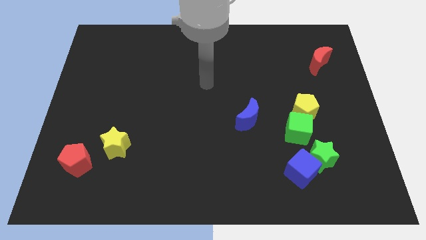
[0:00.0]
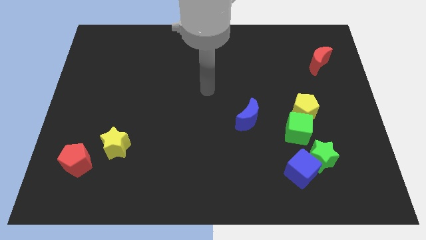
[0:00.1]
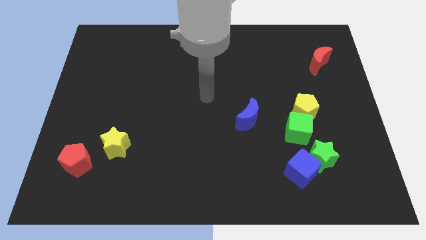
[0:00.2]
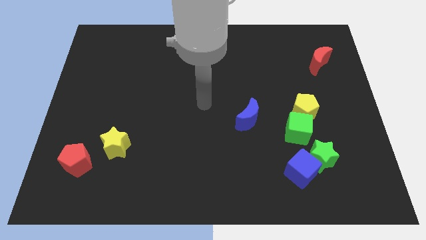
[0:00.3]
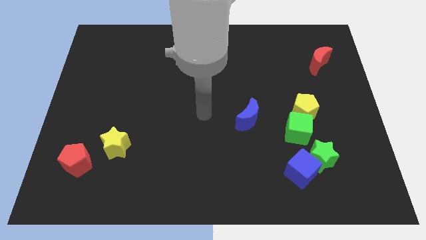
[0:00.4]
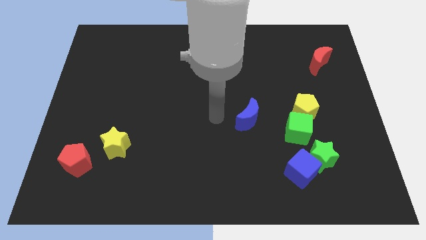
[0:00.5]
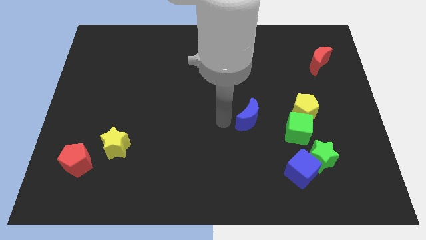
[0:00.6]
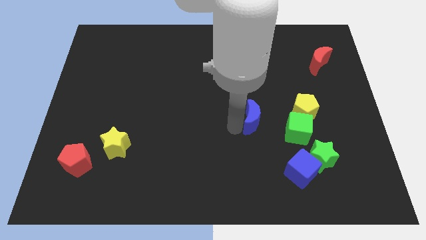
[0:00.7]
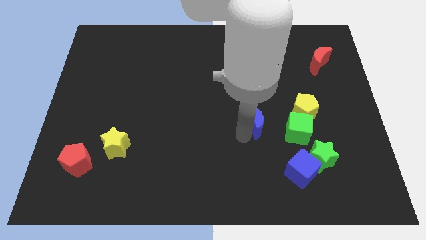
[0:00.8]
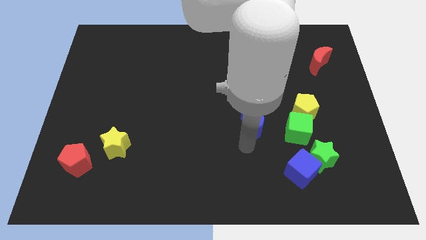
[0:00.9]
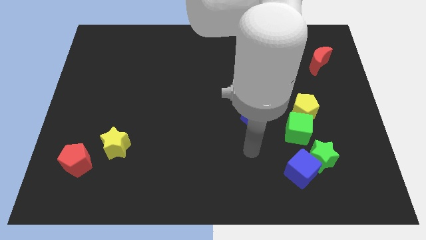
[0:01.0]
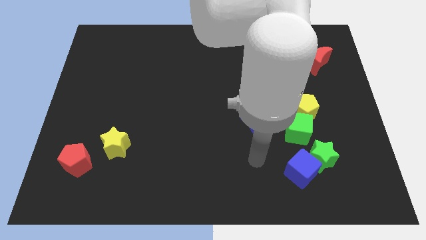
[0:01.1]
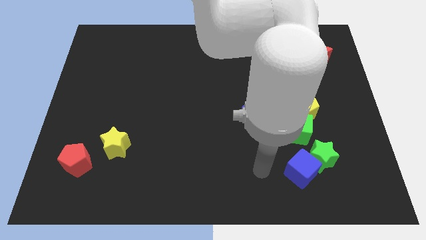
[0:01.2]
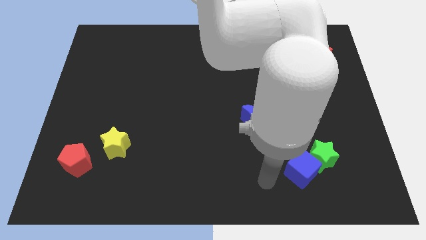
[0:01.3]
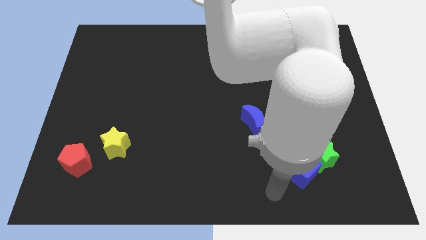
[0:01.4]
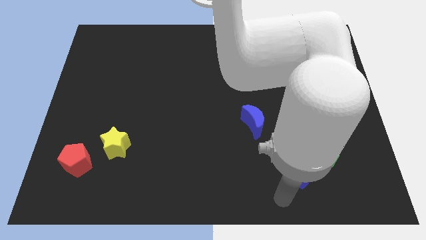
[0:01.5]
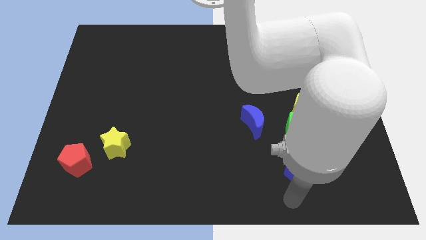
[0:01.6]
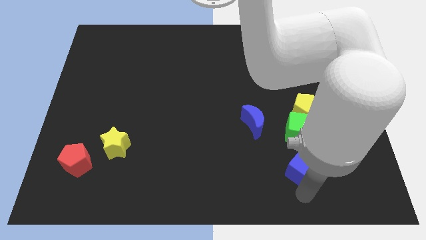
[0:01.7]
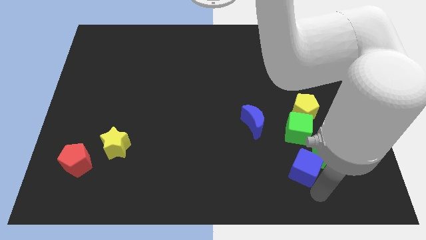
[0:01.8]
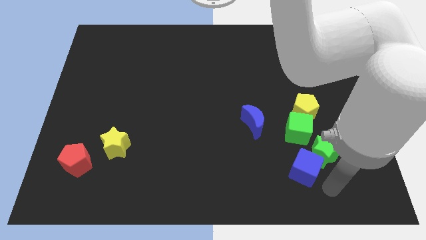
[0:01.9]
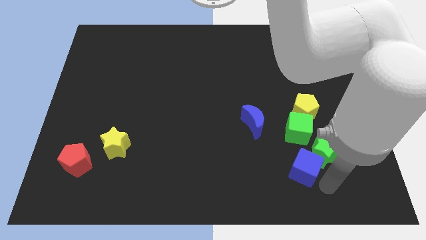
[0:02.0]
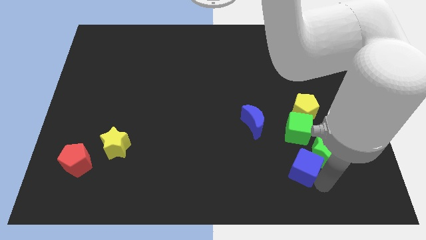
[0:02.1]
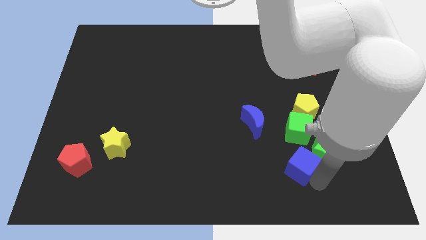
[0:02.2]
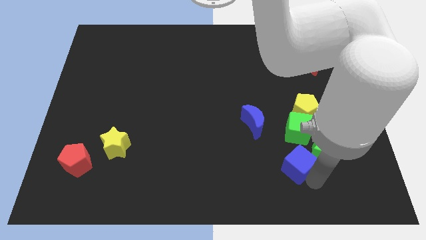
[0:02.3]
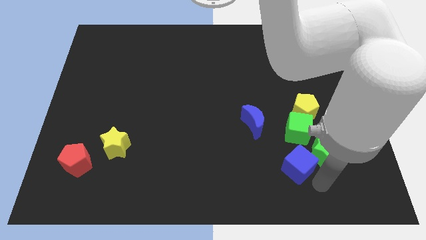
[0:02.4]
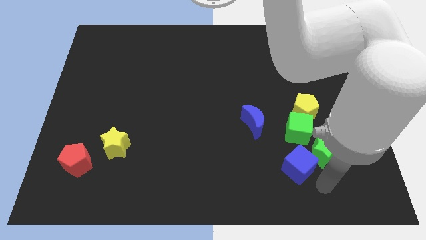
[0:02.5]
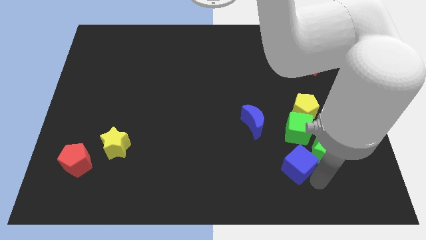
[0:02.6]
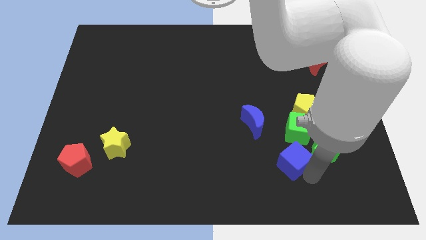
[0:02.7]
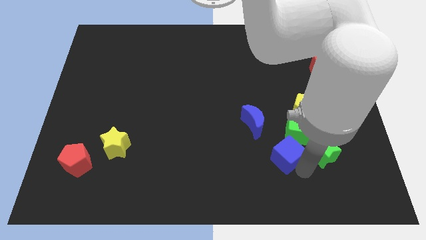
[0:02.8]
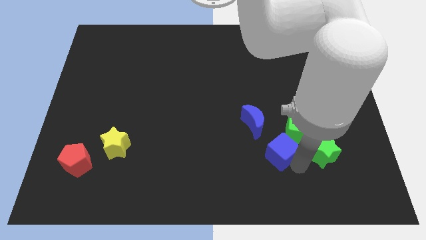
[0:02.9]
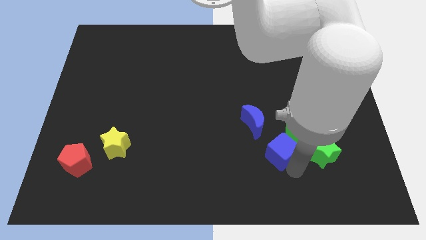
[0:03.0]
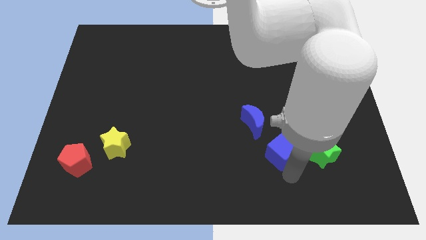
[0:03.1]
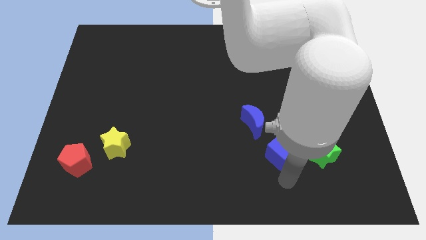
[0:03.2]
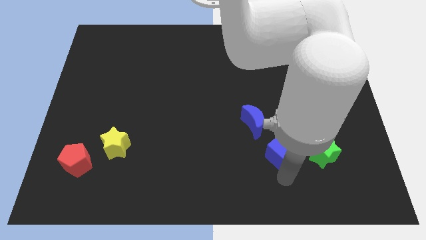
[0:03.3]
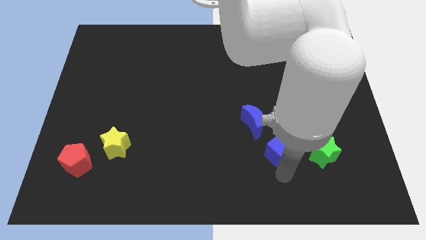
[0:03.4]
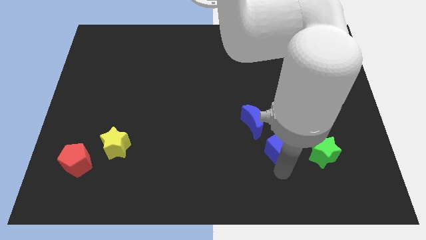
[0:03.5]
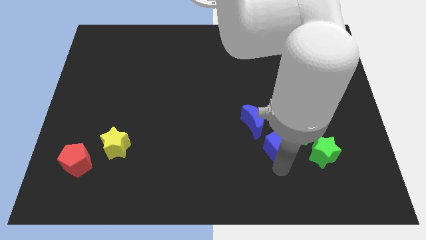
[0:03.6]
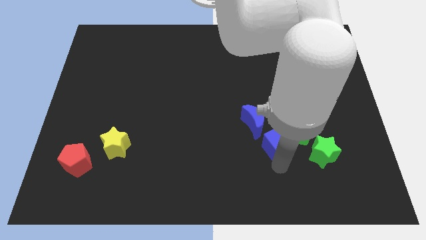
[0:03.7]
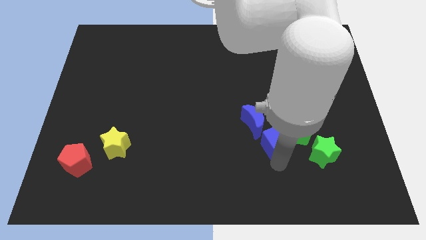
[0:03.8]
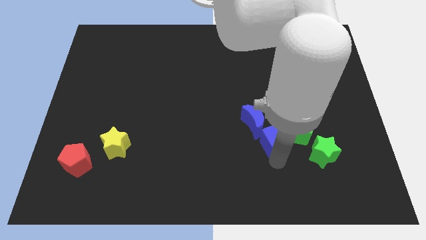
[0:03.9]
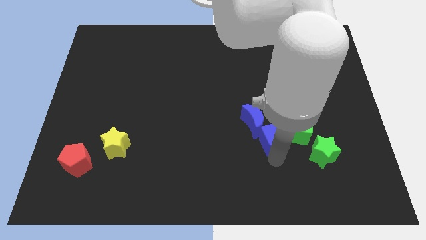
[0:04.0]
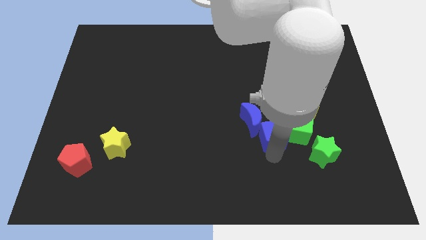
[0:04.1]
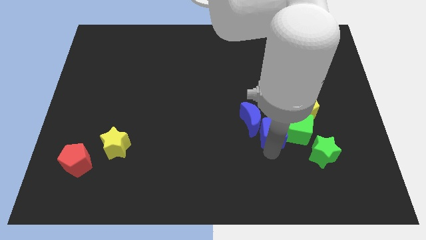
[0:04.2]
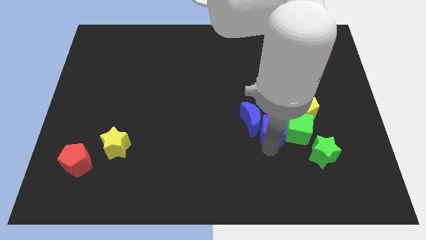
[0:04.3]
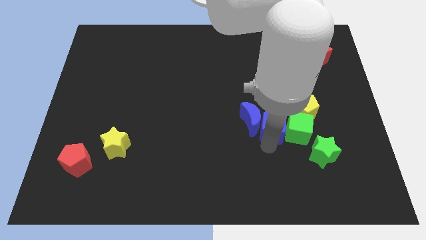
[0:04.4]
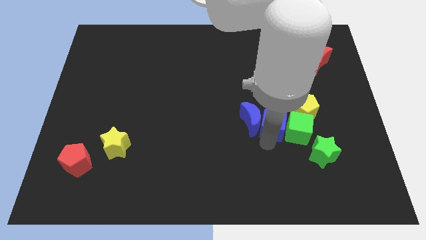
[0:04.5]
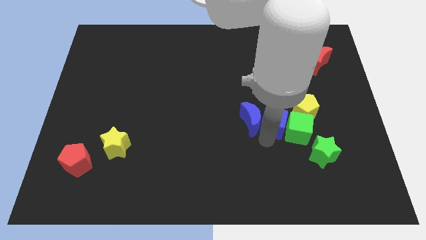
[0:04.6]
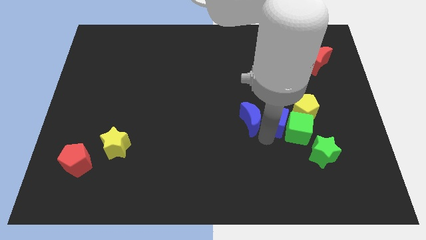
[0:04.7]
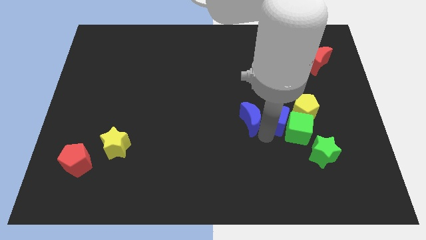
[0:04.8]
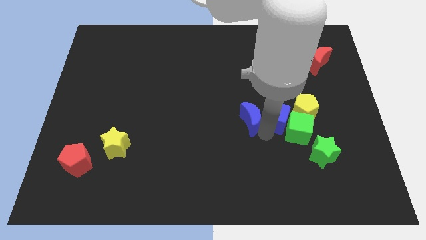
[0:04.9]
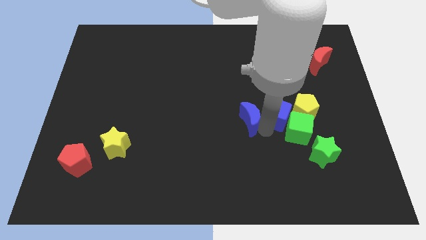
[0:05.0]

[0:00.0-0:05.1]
move the blue cube above the green cube

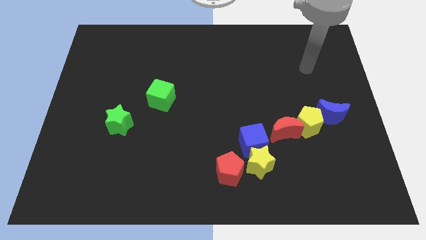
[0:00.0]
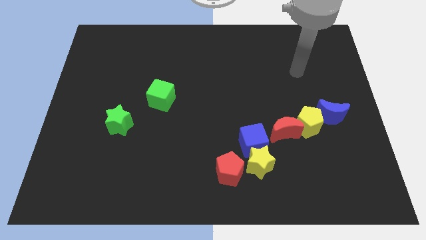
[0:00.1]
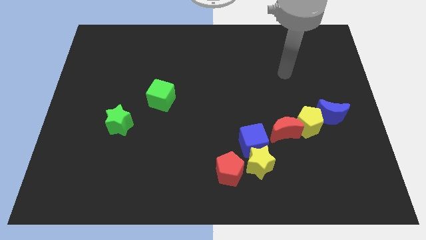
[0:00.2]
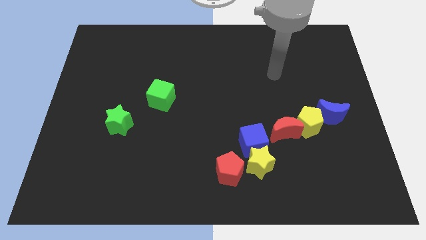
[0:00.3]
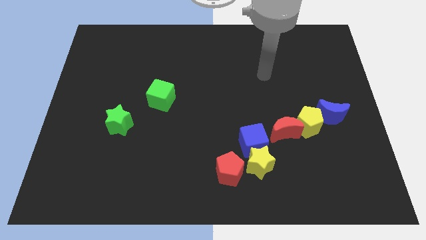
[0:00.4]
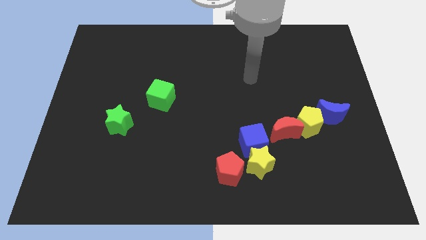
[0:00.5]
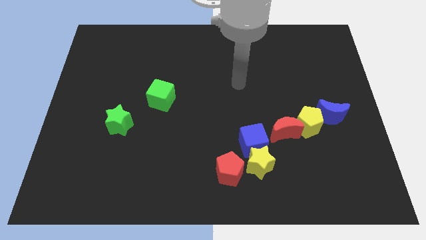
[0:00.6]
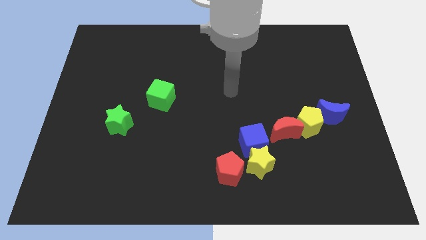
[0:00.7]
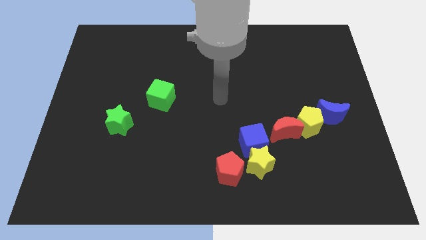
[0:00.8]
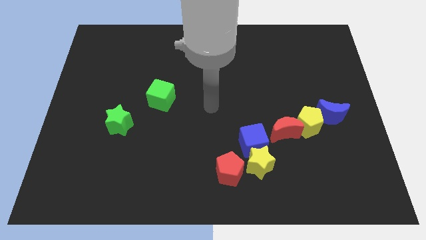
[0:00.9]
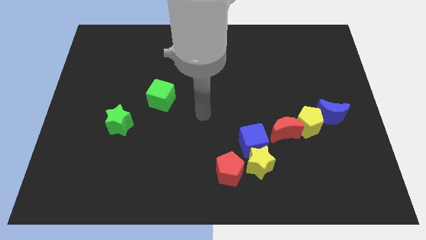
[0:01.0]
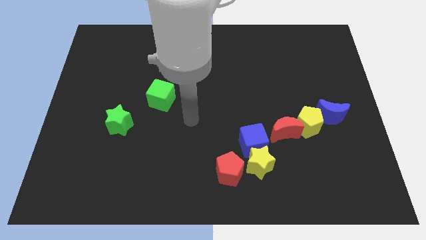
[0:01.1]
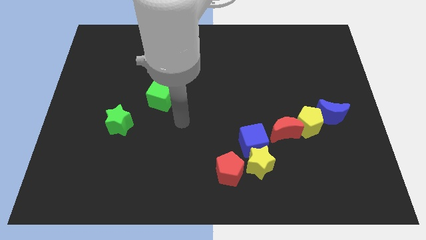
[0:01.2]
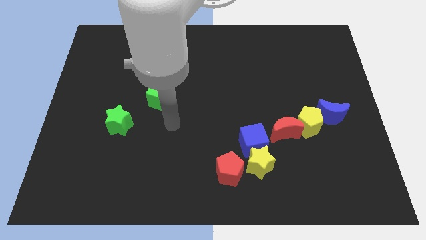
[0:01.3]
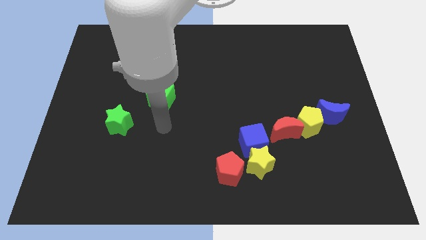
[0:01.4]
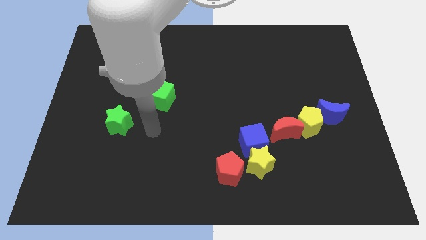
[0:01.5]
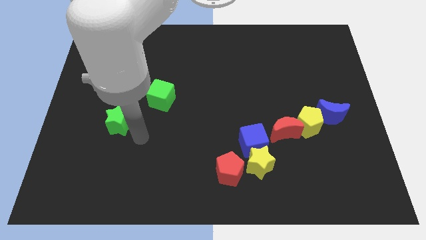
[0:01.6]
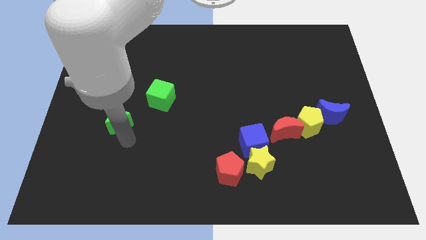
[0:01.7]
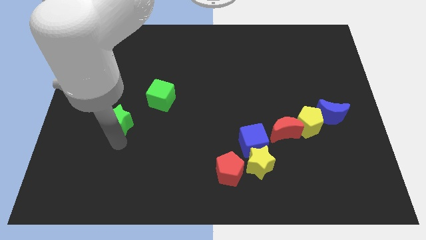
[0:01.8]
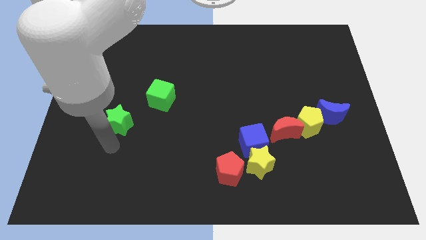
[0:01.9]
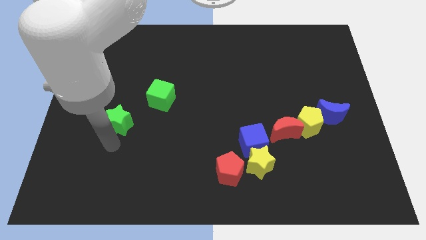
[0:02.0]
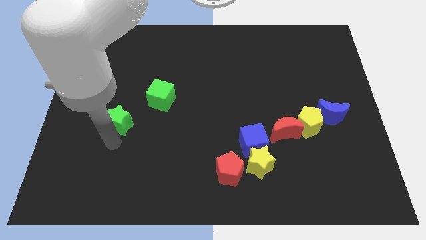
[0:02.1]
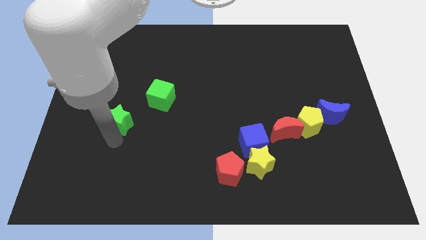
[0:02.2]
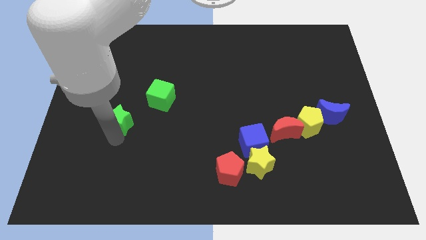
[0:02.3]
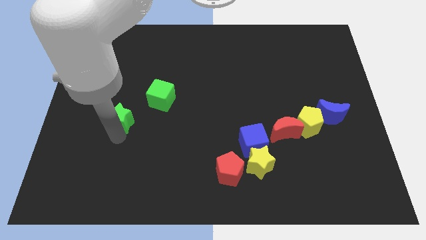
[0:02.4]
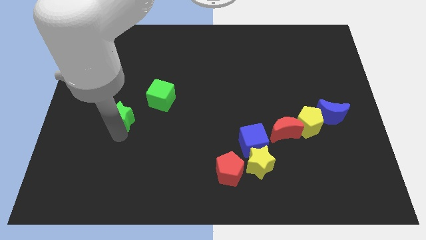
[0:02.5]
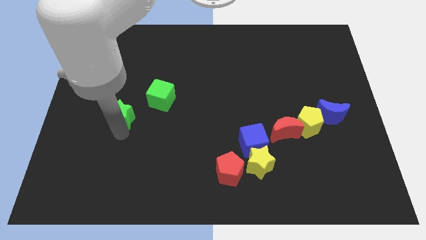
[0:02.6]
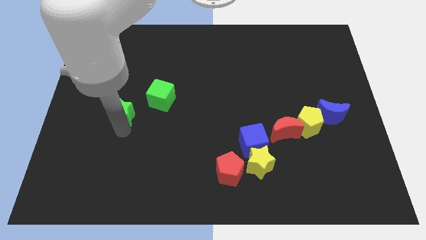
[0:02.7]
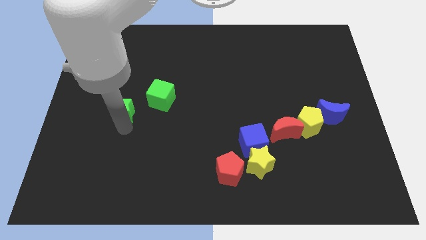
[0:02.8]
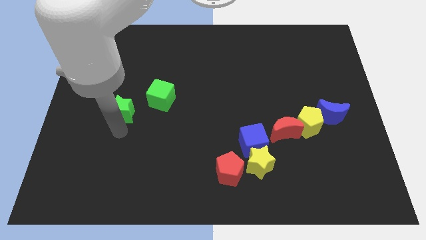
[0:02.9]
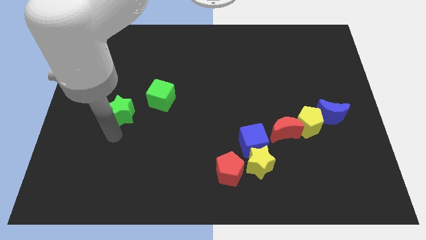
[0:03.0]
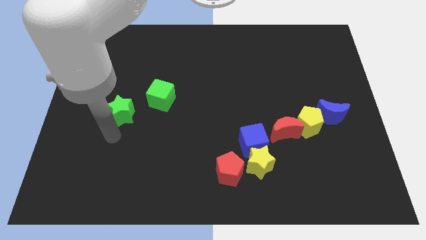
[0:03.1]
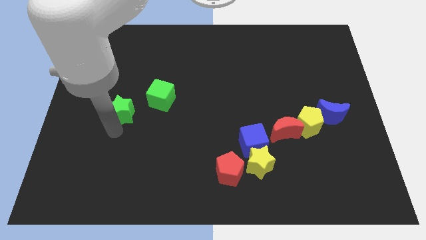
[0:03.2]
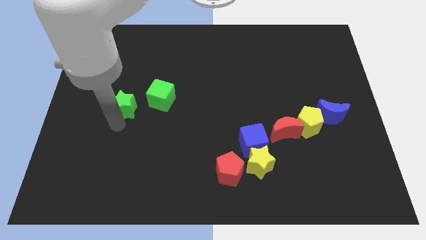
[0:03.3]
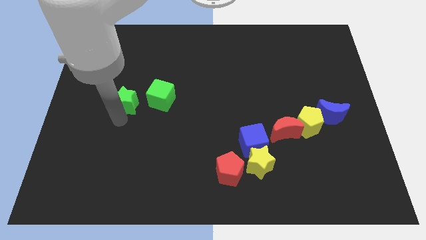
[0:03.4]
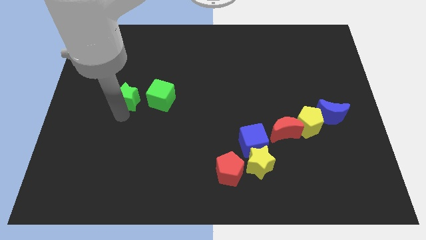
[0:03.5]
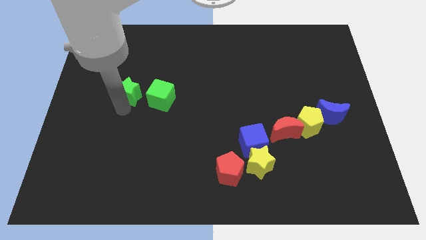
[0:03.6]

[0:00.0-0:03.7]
move the green star diagonally up and to the left of the green cube
